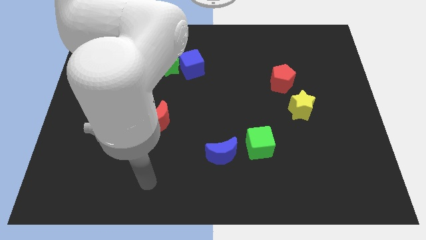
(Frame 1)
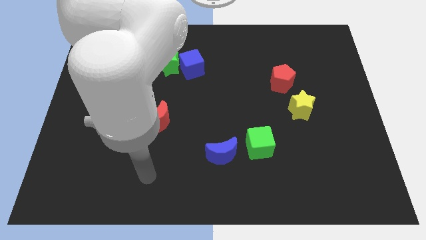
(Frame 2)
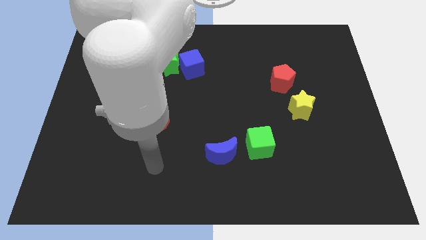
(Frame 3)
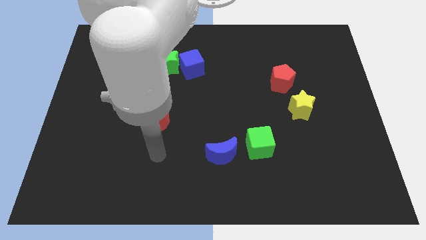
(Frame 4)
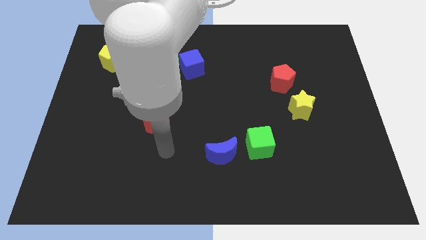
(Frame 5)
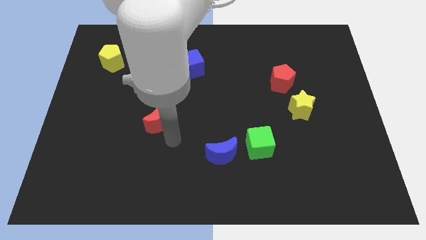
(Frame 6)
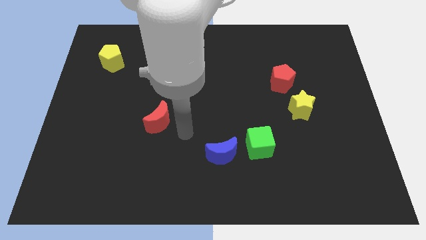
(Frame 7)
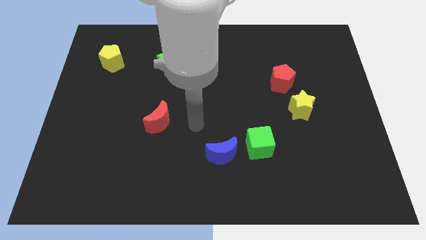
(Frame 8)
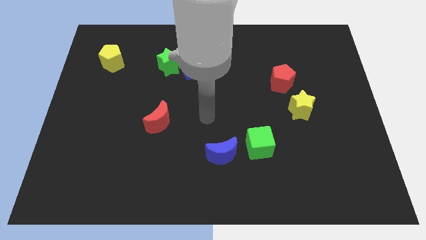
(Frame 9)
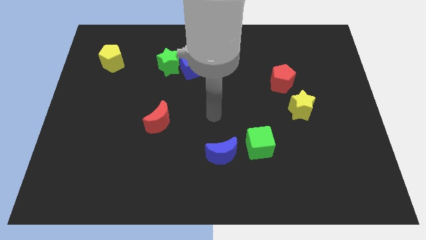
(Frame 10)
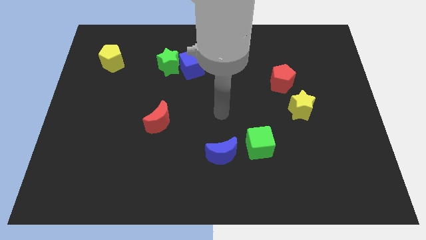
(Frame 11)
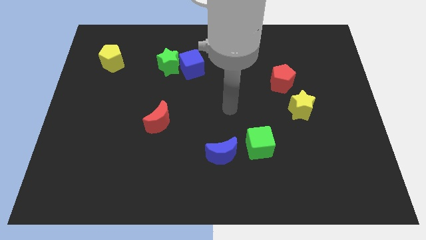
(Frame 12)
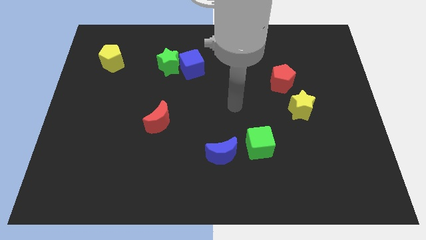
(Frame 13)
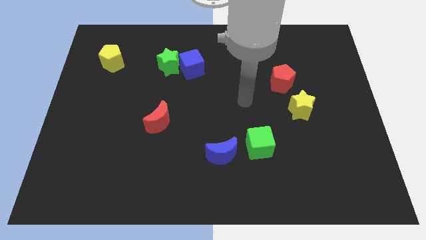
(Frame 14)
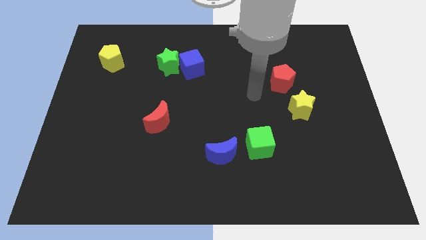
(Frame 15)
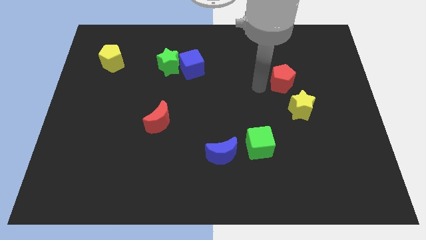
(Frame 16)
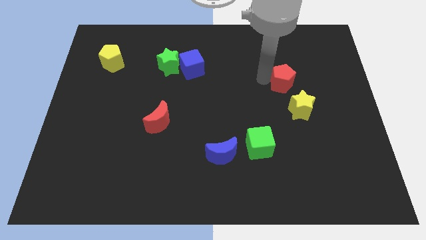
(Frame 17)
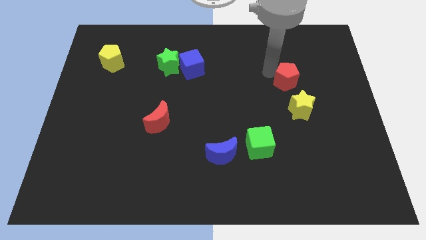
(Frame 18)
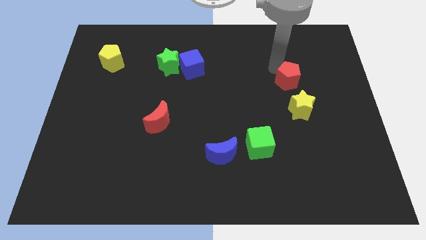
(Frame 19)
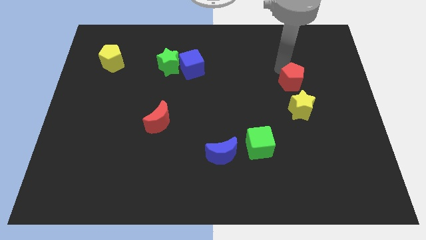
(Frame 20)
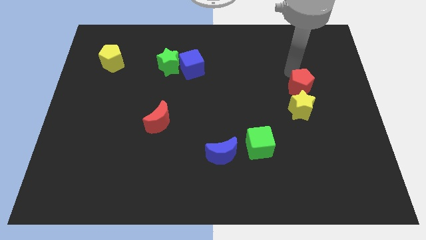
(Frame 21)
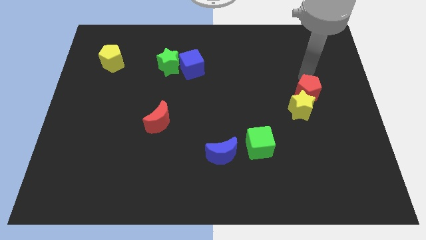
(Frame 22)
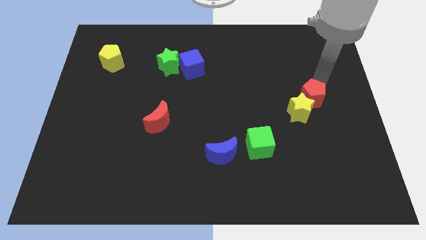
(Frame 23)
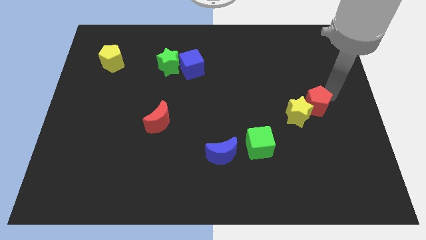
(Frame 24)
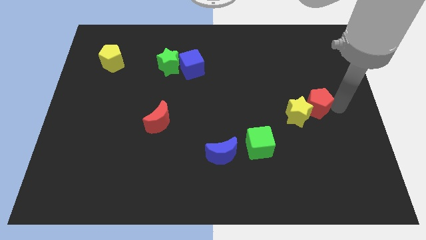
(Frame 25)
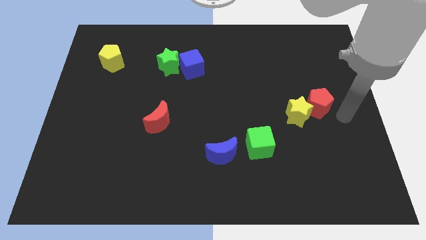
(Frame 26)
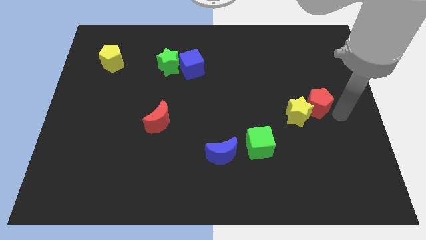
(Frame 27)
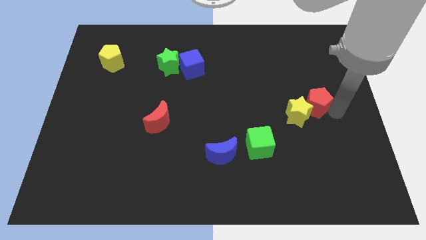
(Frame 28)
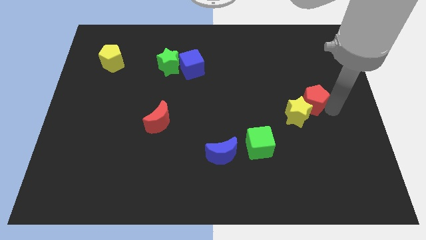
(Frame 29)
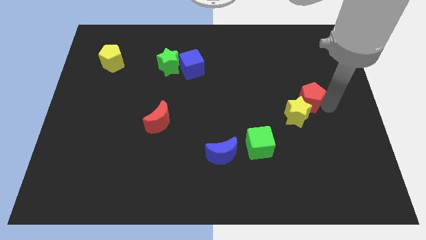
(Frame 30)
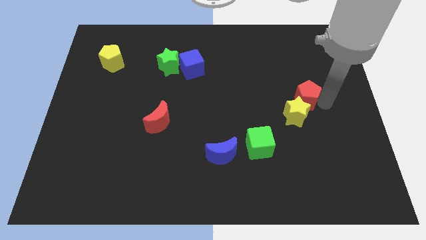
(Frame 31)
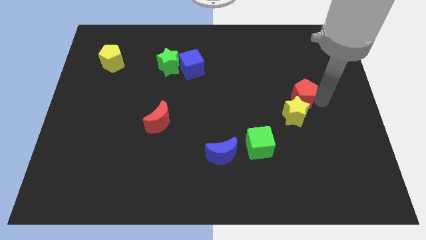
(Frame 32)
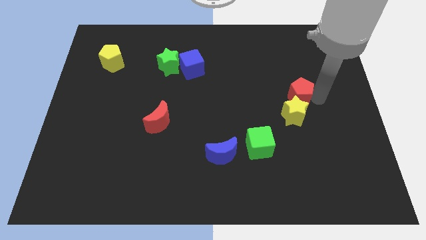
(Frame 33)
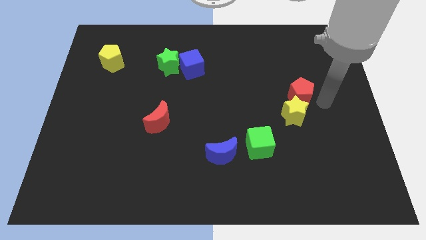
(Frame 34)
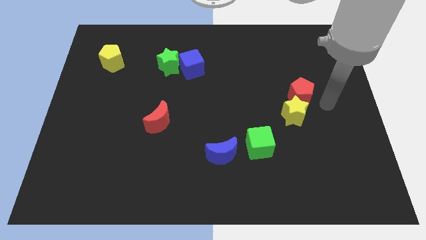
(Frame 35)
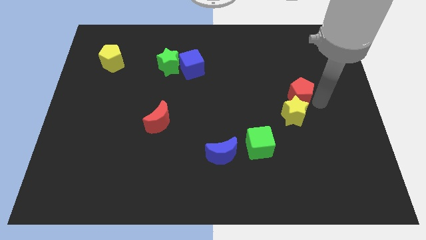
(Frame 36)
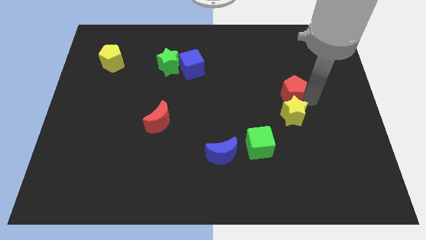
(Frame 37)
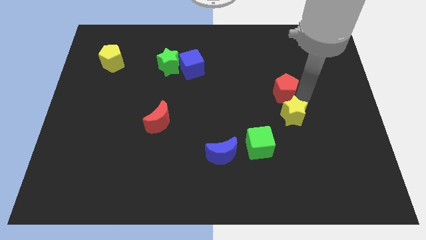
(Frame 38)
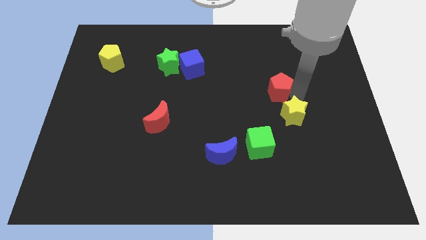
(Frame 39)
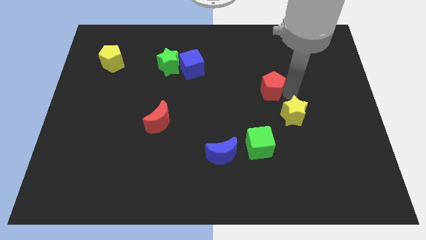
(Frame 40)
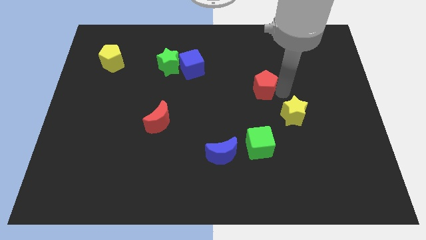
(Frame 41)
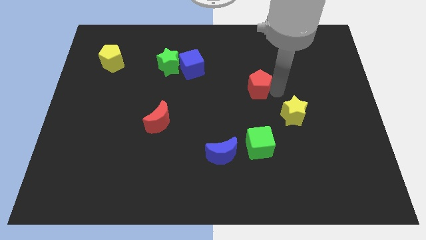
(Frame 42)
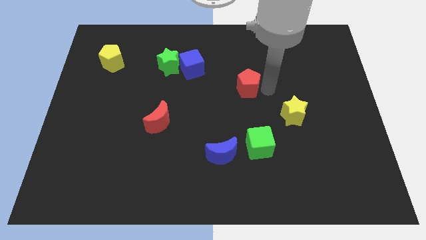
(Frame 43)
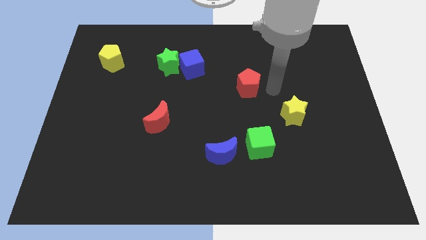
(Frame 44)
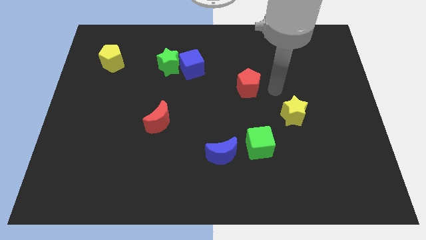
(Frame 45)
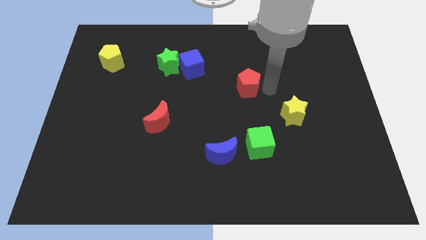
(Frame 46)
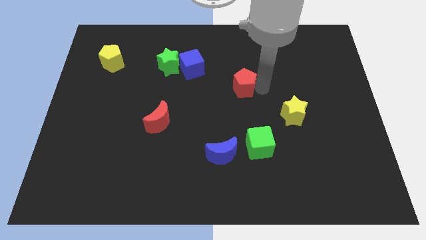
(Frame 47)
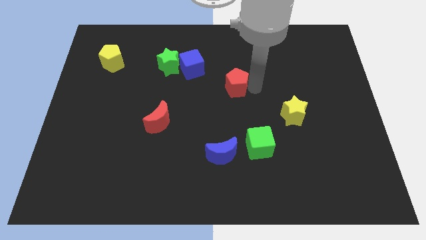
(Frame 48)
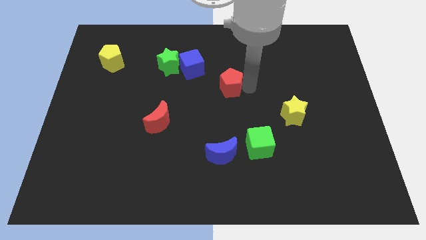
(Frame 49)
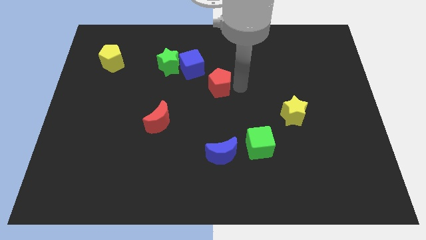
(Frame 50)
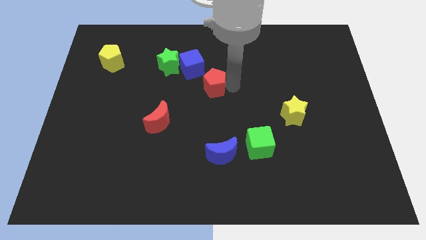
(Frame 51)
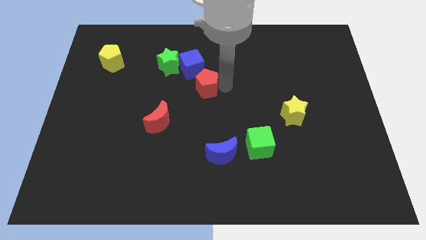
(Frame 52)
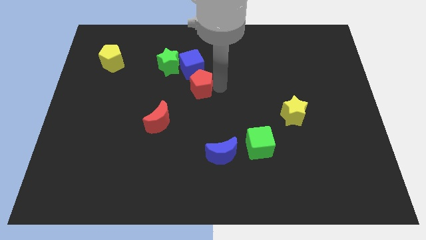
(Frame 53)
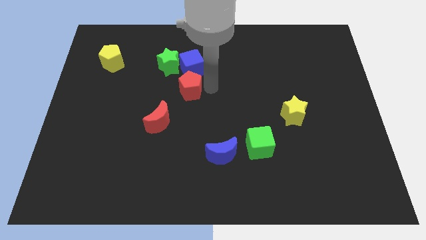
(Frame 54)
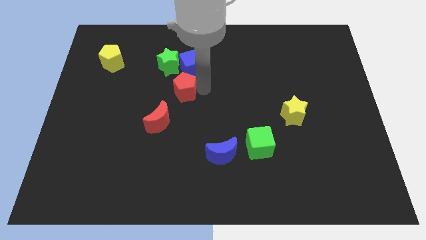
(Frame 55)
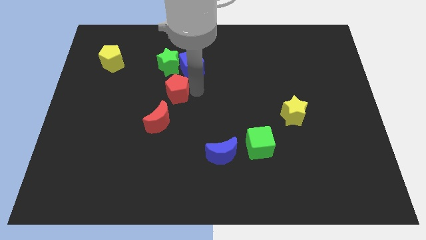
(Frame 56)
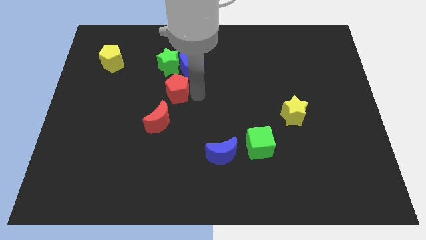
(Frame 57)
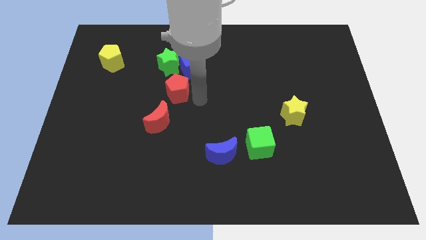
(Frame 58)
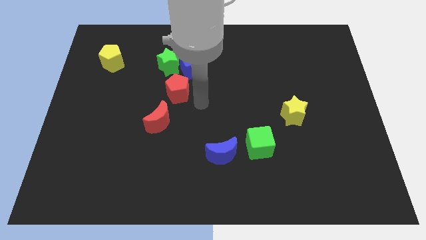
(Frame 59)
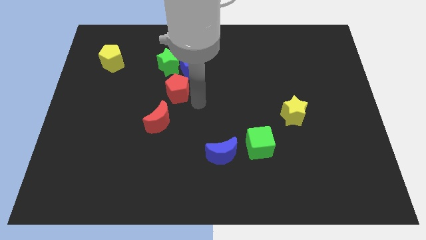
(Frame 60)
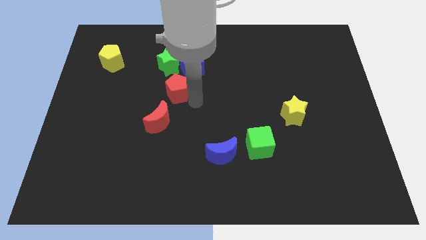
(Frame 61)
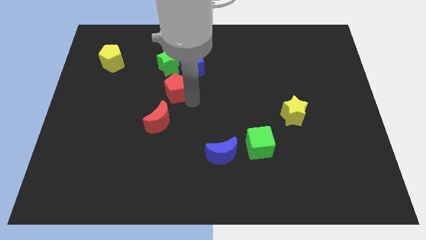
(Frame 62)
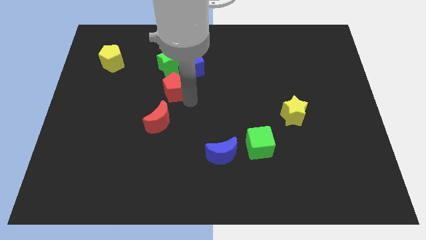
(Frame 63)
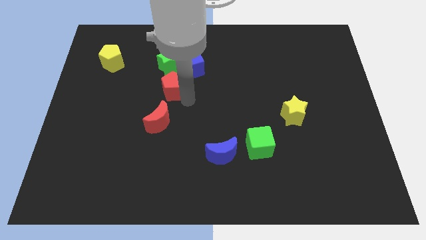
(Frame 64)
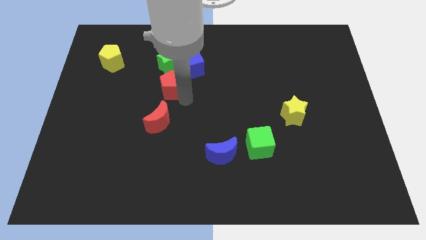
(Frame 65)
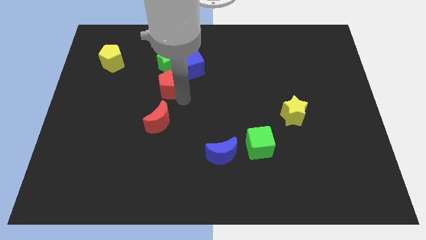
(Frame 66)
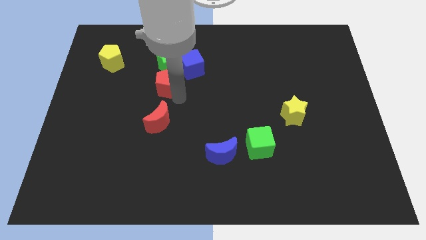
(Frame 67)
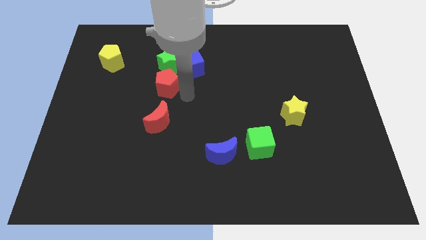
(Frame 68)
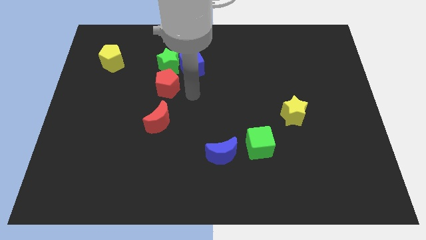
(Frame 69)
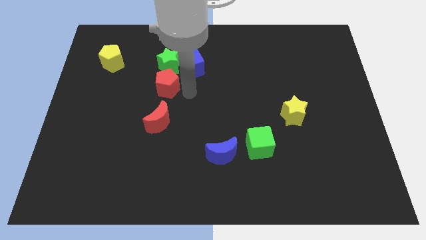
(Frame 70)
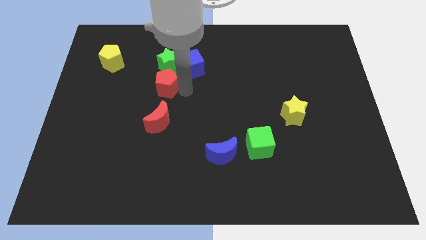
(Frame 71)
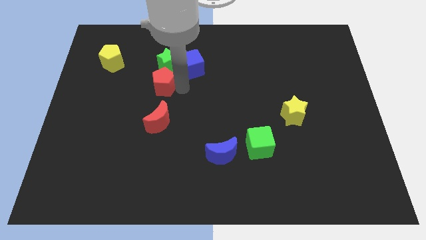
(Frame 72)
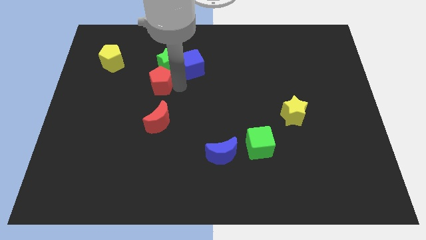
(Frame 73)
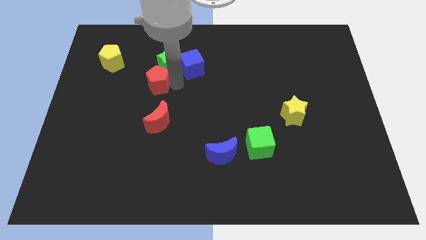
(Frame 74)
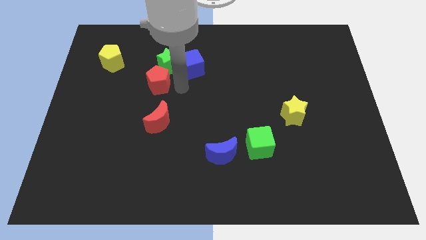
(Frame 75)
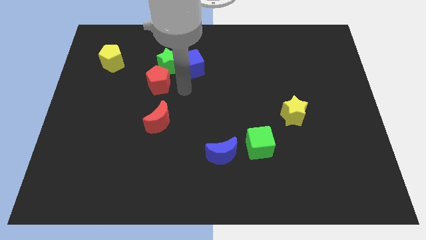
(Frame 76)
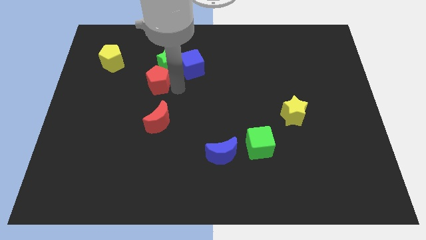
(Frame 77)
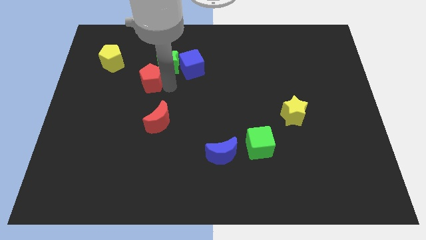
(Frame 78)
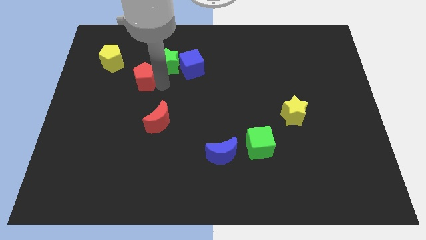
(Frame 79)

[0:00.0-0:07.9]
push the red pentagon to the bottom right of the yellow pentagon

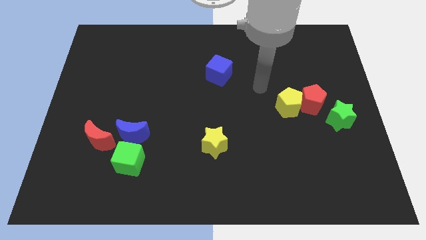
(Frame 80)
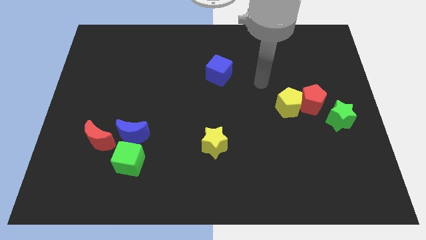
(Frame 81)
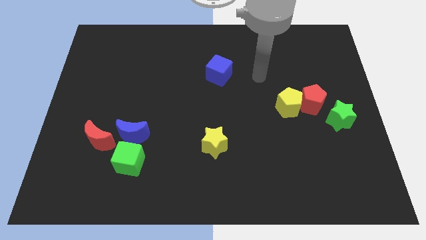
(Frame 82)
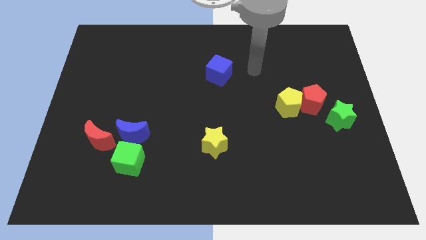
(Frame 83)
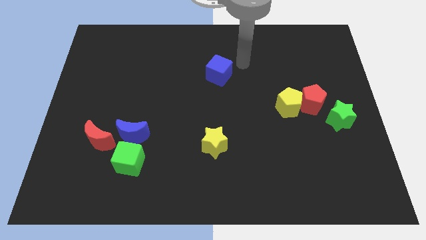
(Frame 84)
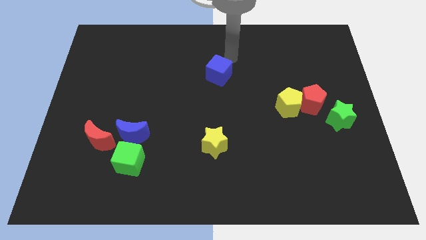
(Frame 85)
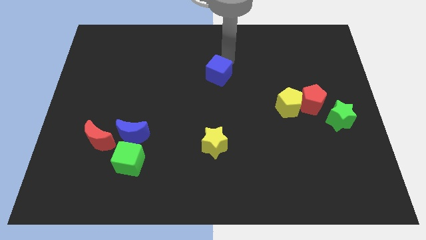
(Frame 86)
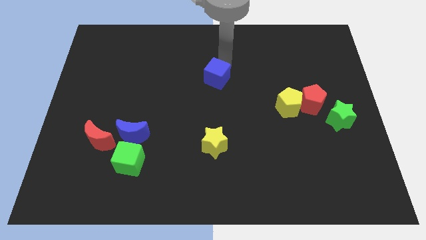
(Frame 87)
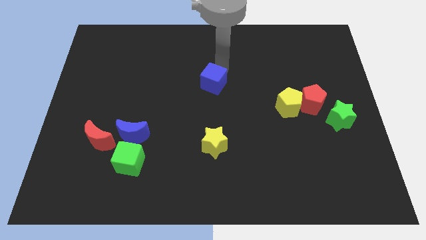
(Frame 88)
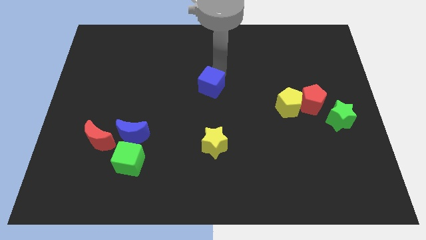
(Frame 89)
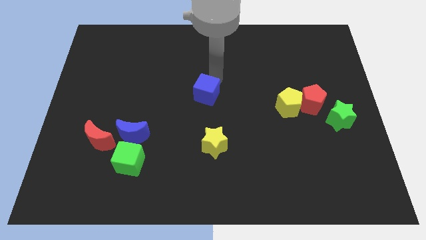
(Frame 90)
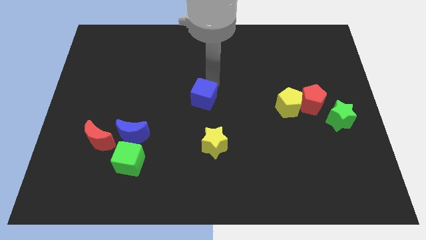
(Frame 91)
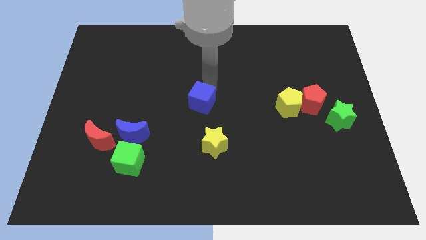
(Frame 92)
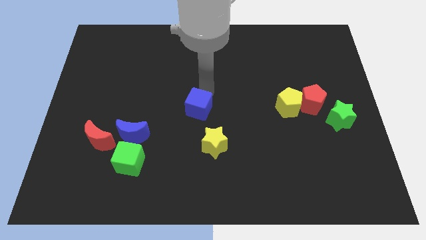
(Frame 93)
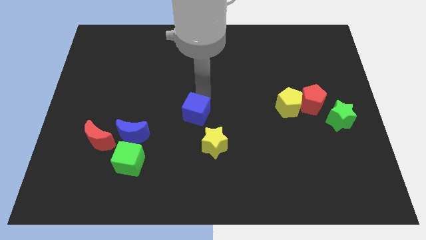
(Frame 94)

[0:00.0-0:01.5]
put the blue cube to the top left of the yellow star
